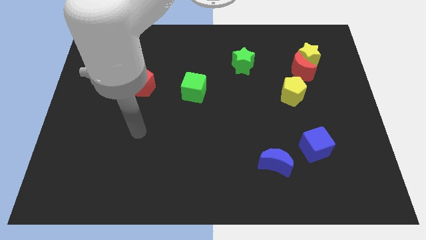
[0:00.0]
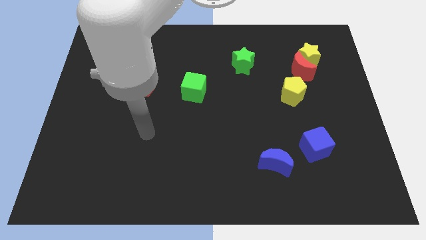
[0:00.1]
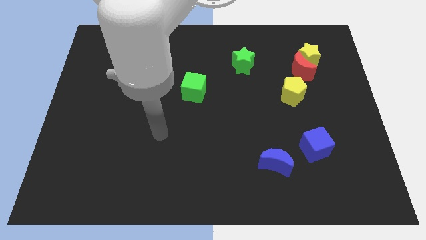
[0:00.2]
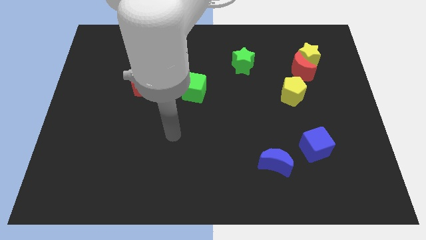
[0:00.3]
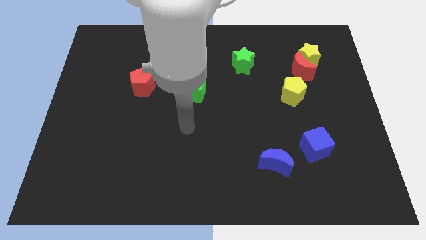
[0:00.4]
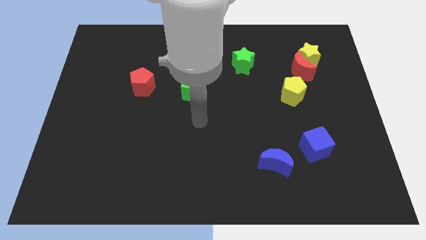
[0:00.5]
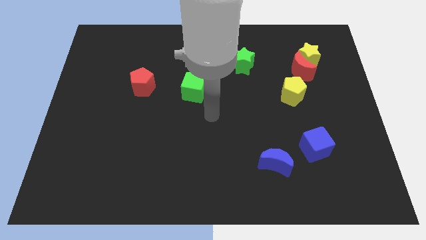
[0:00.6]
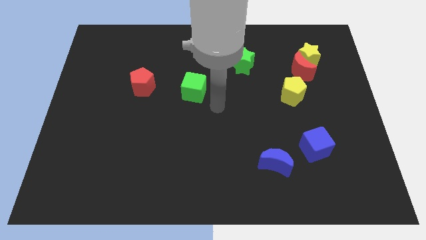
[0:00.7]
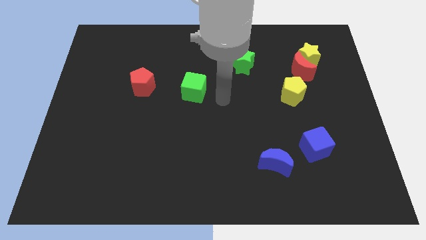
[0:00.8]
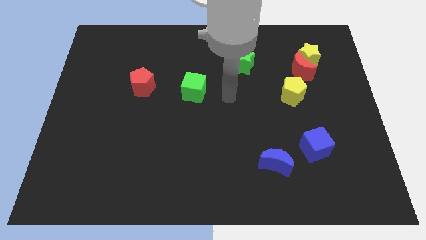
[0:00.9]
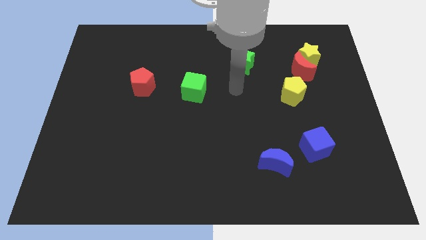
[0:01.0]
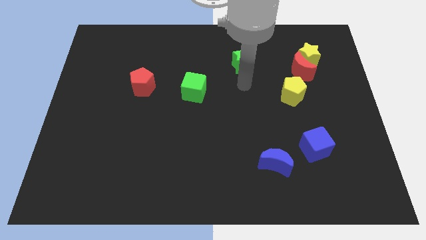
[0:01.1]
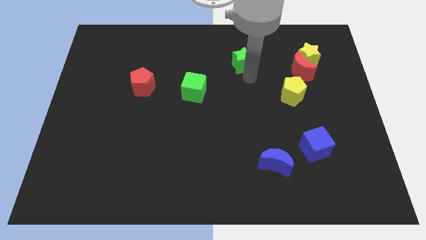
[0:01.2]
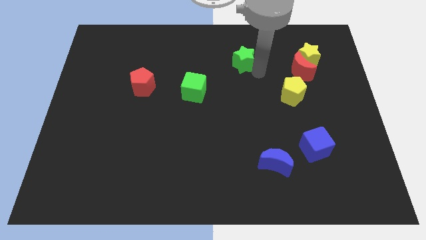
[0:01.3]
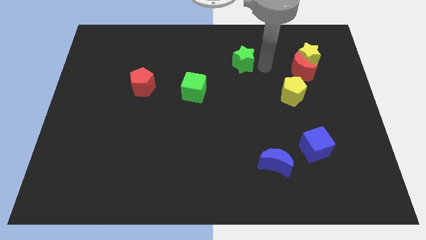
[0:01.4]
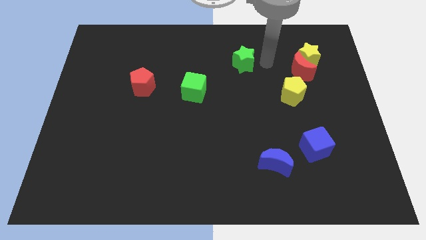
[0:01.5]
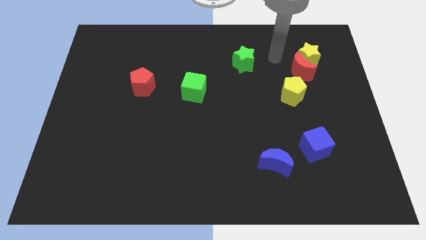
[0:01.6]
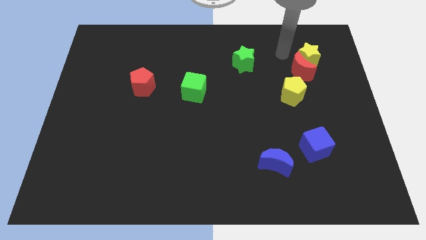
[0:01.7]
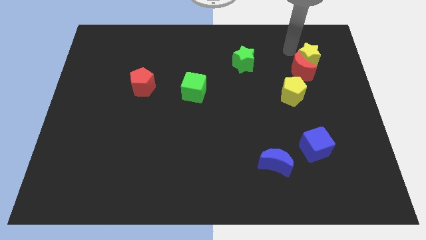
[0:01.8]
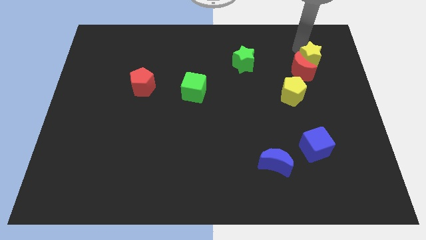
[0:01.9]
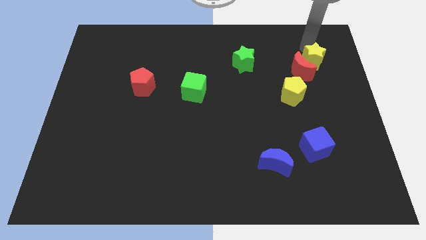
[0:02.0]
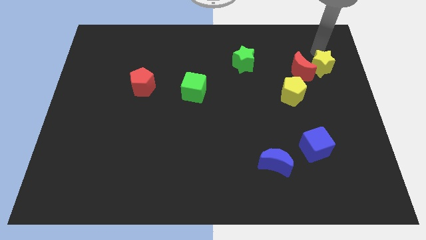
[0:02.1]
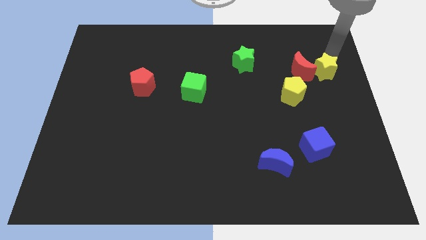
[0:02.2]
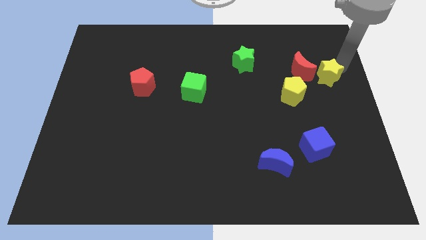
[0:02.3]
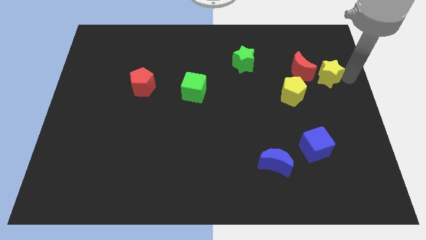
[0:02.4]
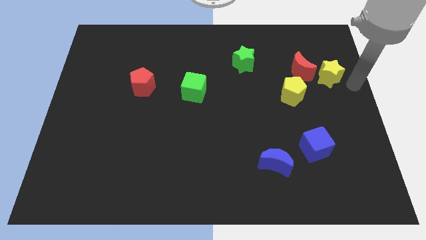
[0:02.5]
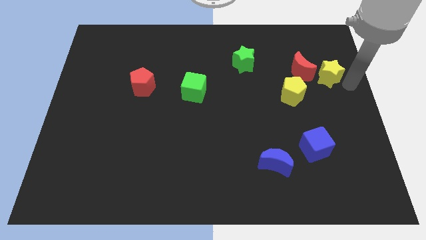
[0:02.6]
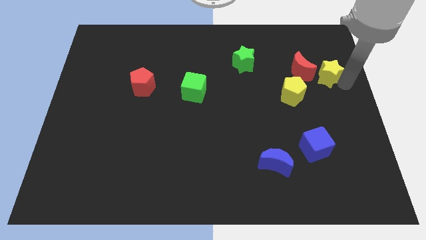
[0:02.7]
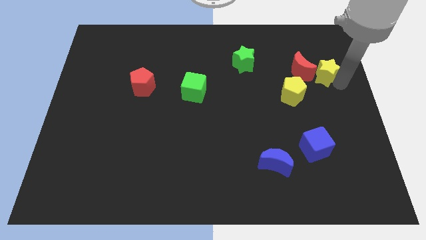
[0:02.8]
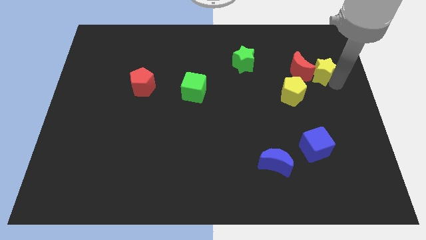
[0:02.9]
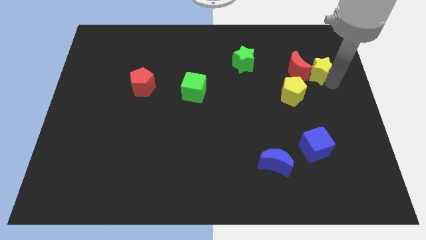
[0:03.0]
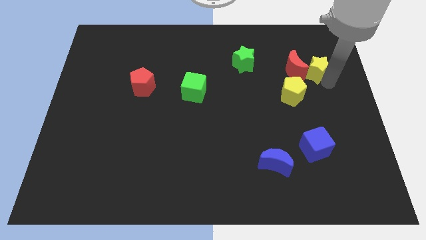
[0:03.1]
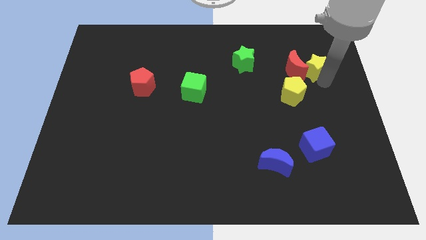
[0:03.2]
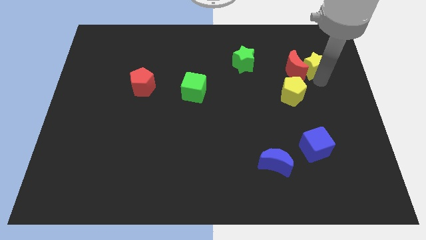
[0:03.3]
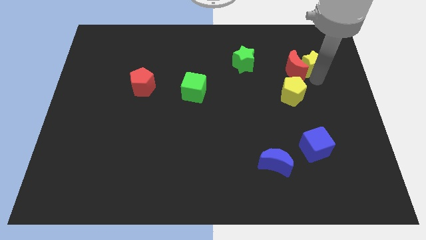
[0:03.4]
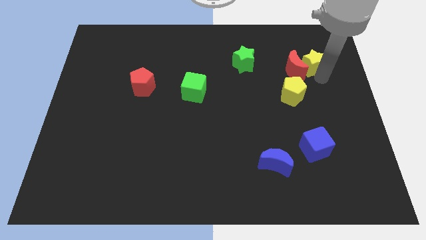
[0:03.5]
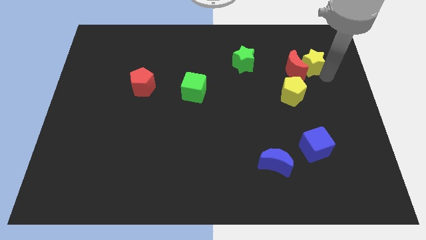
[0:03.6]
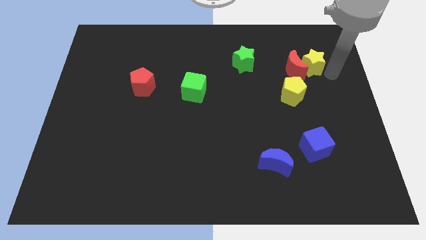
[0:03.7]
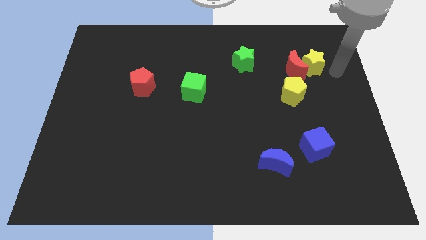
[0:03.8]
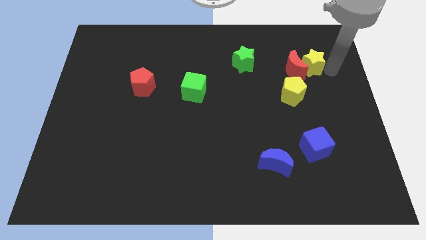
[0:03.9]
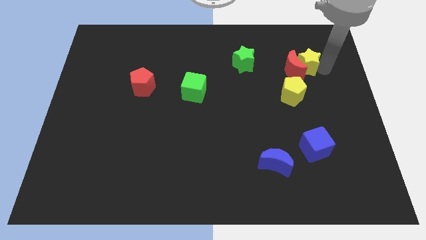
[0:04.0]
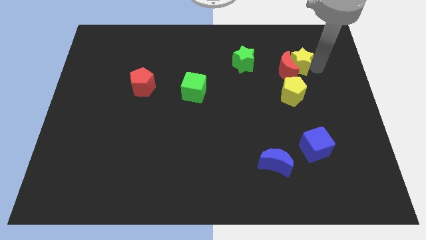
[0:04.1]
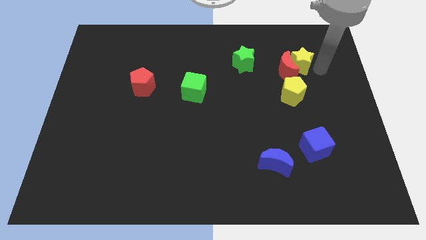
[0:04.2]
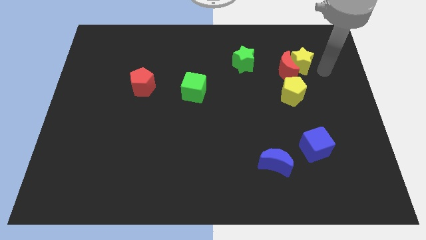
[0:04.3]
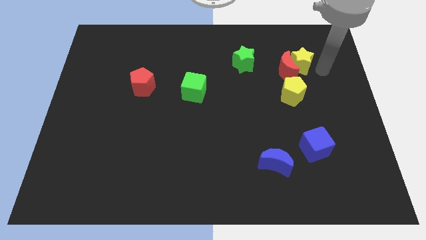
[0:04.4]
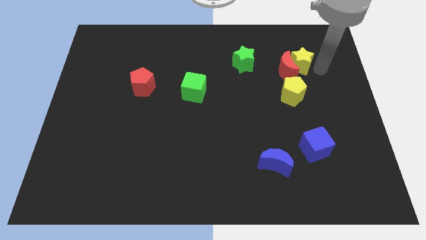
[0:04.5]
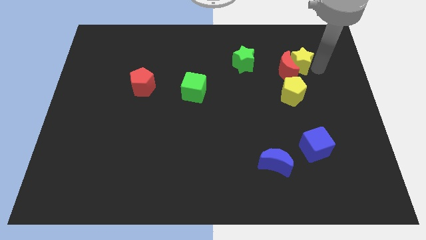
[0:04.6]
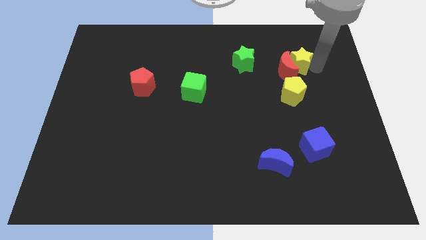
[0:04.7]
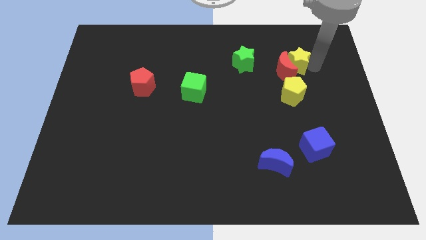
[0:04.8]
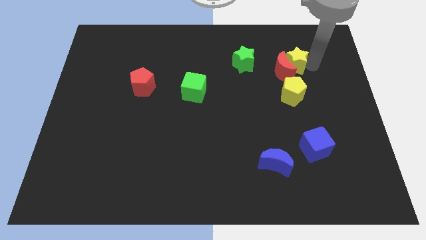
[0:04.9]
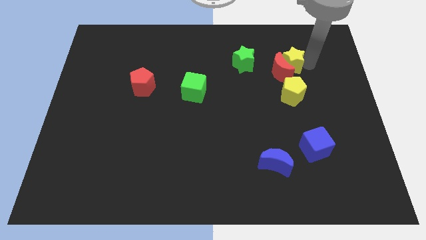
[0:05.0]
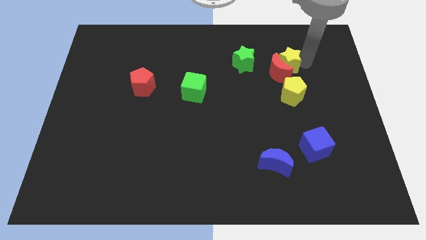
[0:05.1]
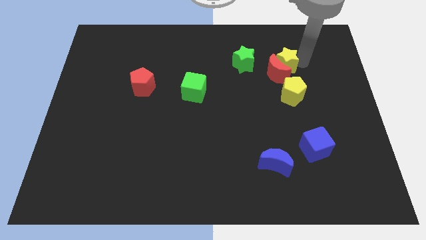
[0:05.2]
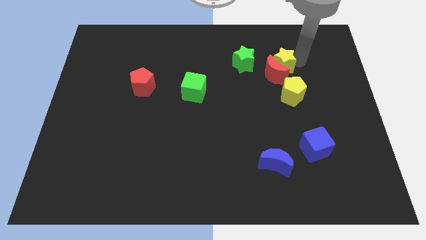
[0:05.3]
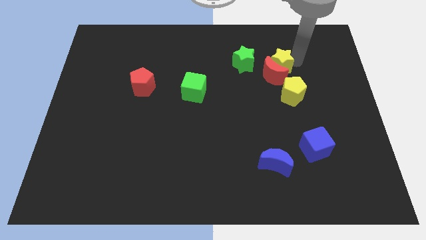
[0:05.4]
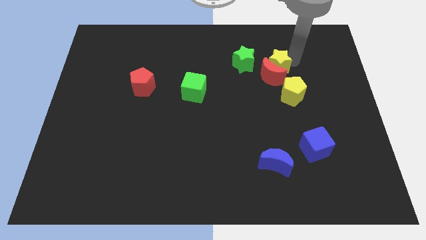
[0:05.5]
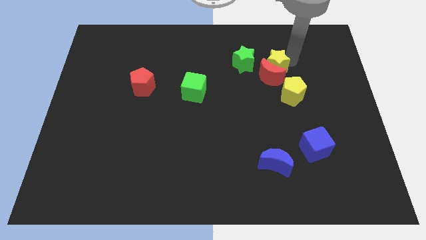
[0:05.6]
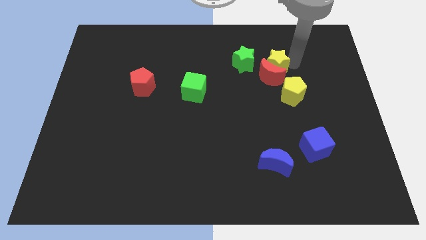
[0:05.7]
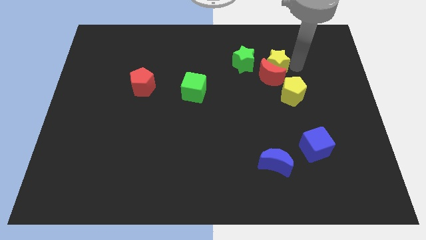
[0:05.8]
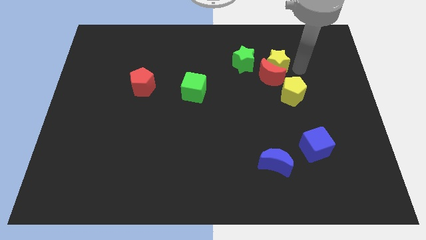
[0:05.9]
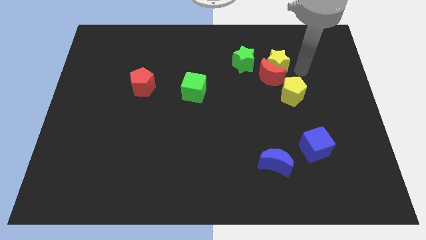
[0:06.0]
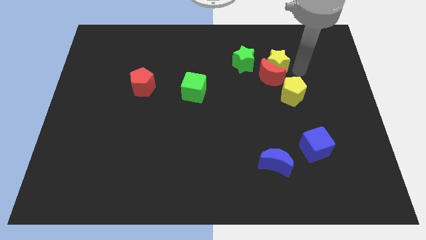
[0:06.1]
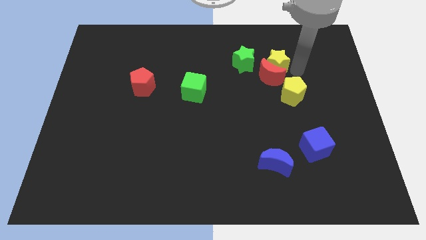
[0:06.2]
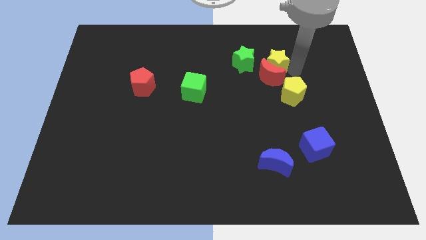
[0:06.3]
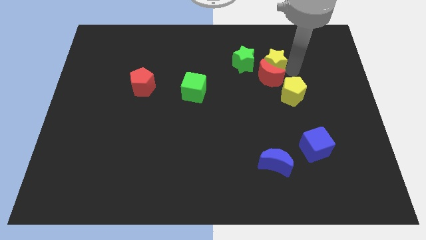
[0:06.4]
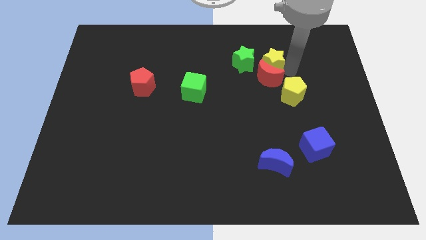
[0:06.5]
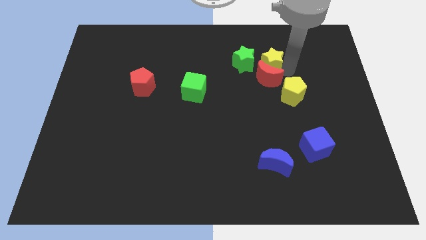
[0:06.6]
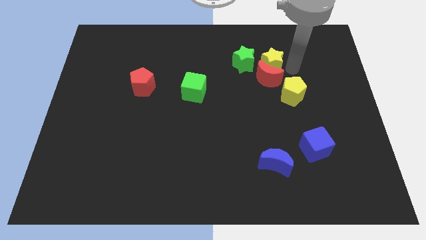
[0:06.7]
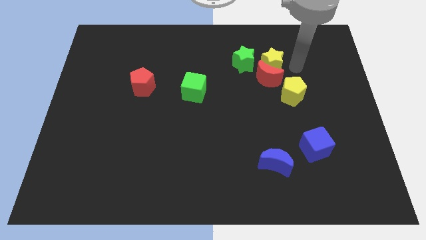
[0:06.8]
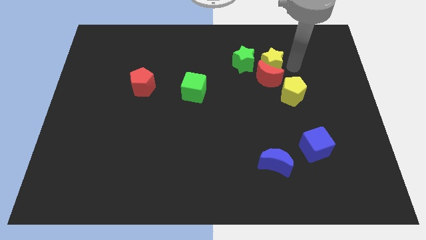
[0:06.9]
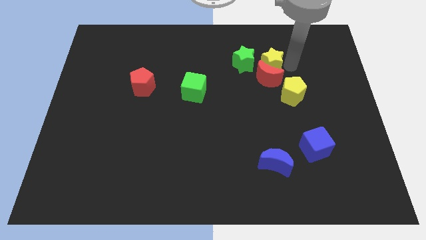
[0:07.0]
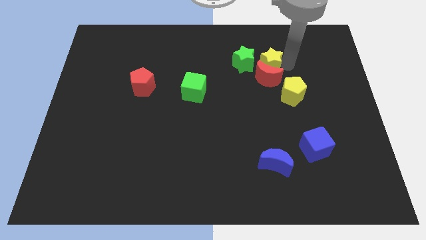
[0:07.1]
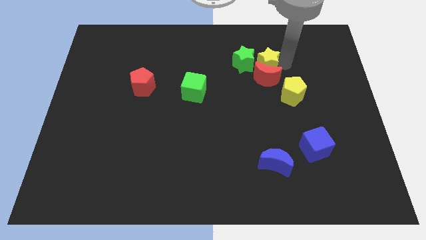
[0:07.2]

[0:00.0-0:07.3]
move the yellow star close to the green star

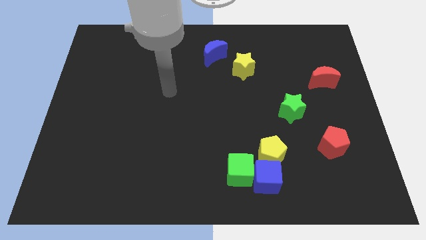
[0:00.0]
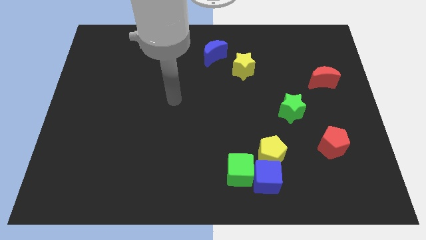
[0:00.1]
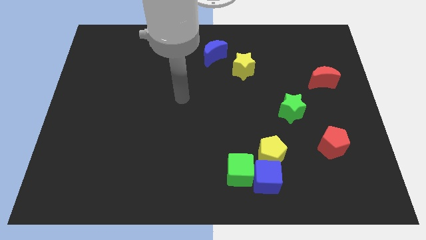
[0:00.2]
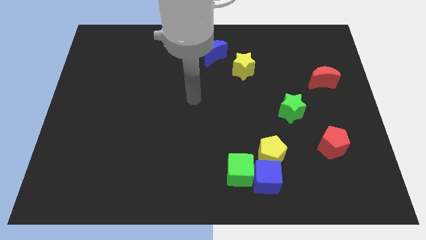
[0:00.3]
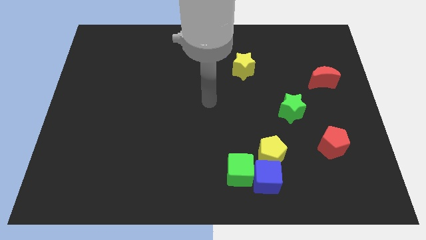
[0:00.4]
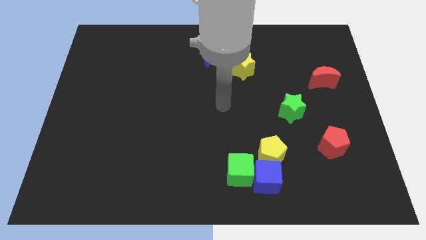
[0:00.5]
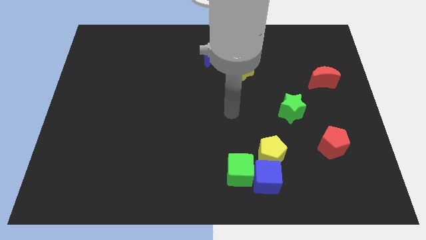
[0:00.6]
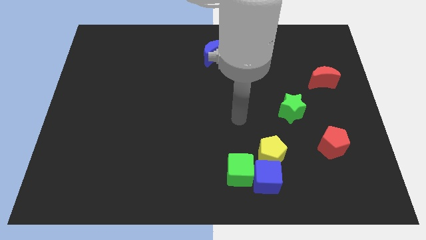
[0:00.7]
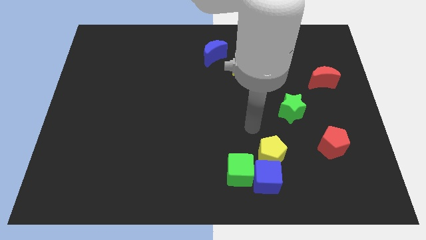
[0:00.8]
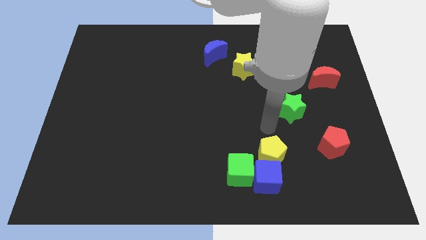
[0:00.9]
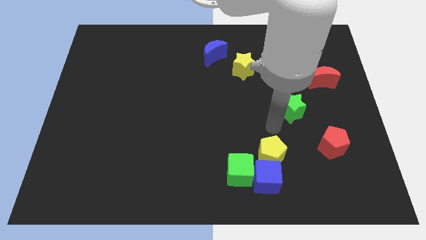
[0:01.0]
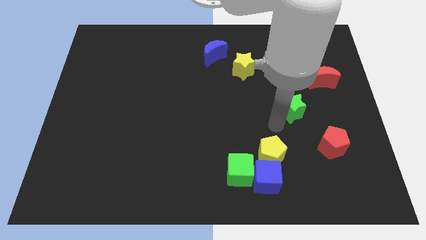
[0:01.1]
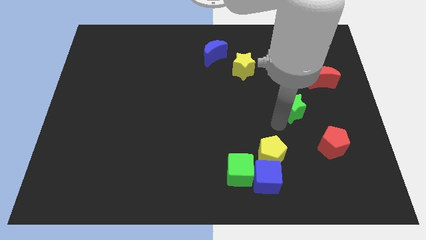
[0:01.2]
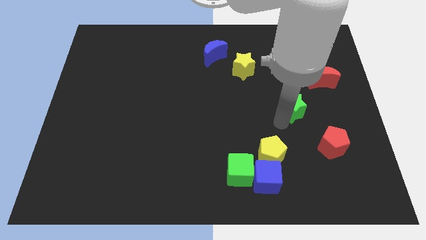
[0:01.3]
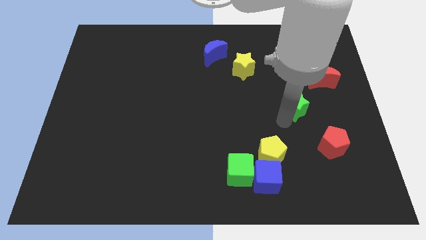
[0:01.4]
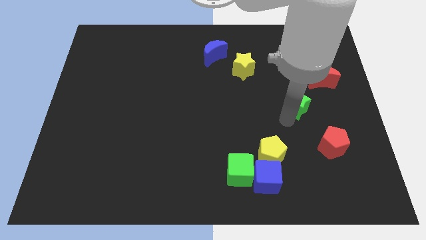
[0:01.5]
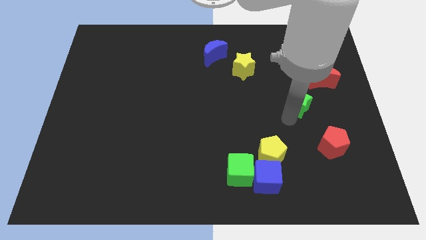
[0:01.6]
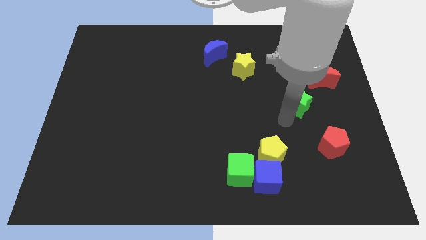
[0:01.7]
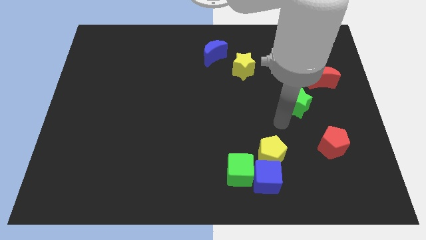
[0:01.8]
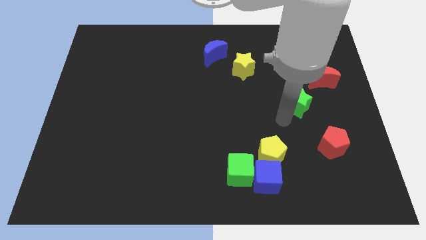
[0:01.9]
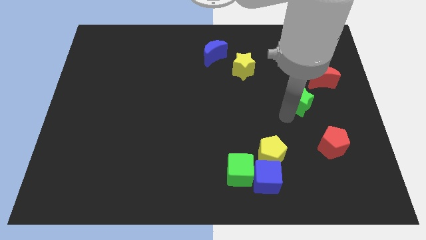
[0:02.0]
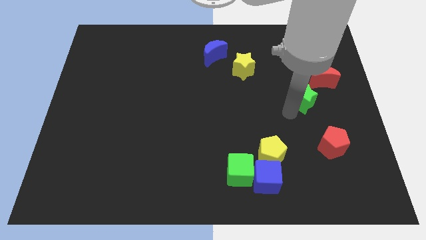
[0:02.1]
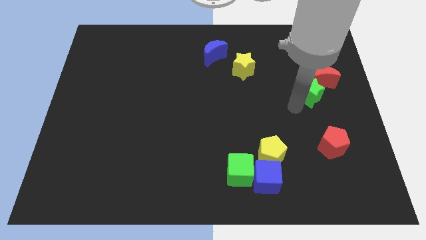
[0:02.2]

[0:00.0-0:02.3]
push the green star towards the red moon
